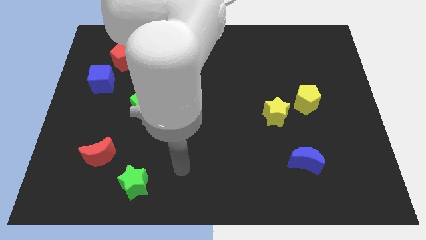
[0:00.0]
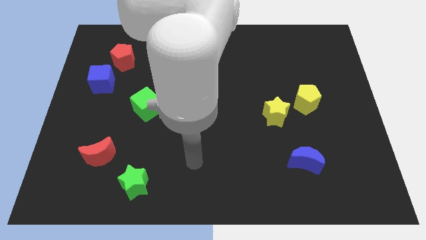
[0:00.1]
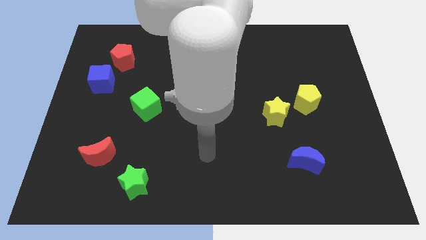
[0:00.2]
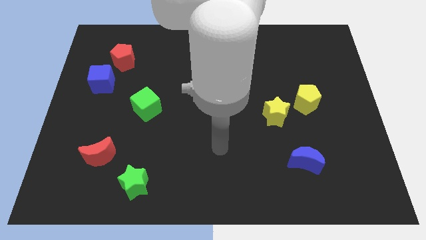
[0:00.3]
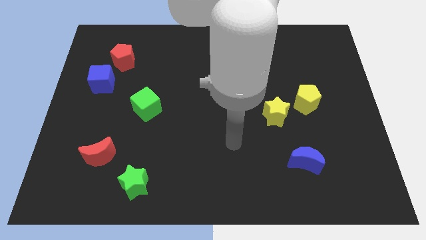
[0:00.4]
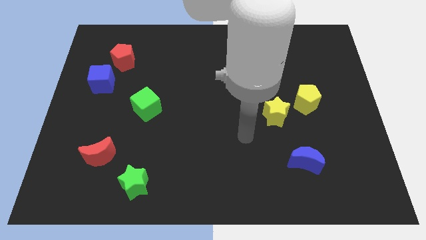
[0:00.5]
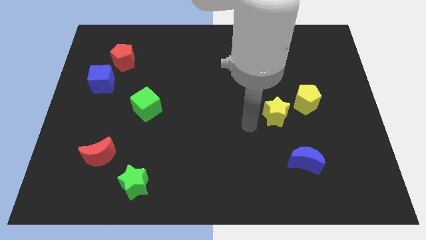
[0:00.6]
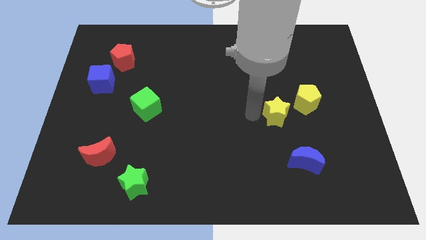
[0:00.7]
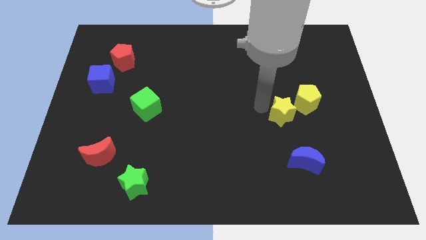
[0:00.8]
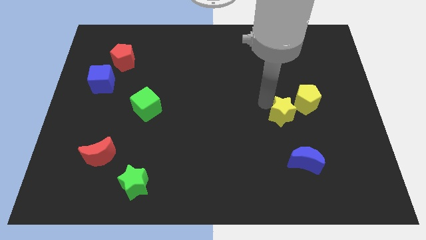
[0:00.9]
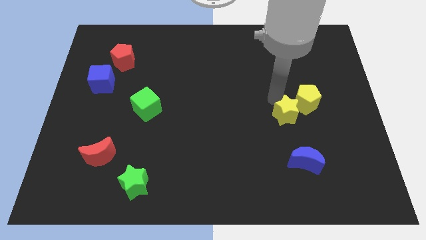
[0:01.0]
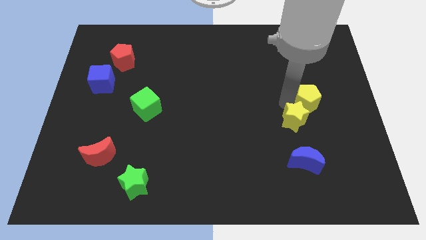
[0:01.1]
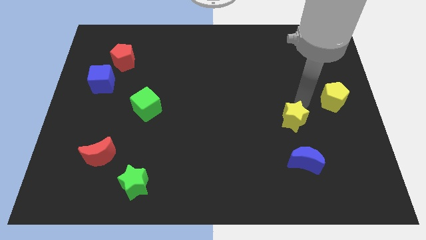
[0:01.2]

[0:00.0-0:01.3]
separate the yellow star from the yellow pentagon

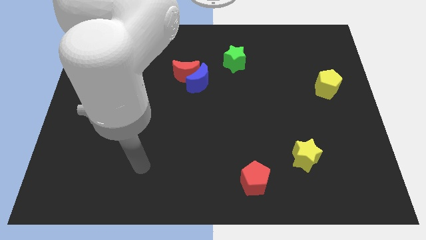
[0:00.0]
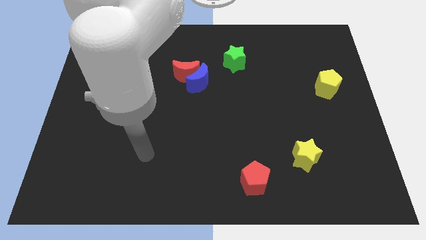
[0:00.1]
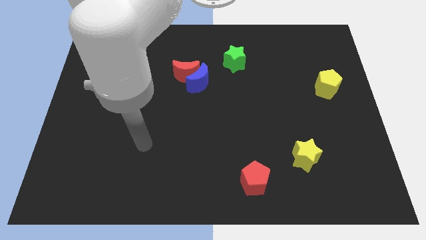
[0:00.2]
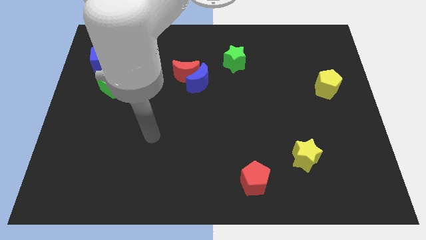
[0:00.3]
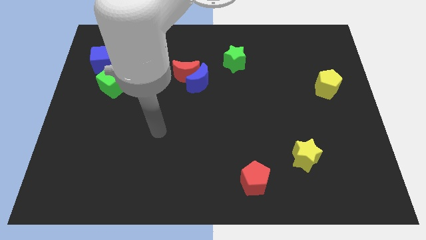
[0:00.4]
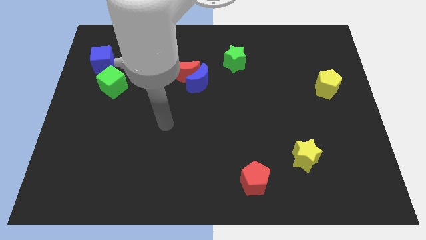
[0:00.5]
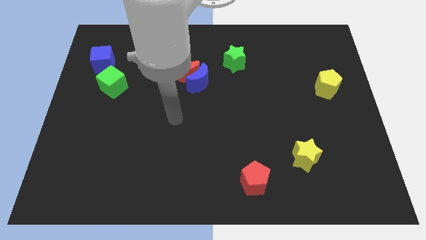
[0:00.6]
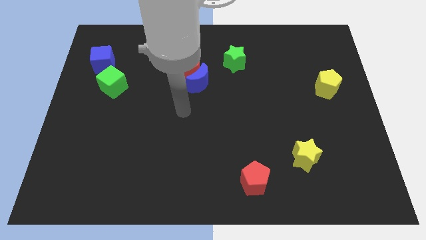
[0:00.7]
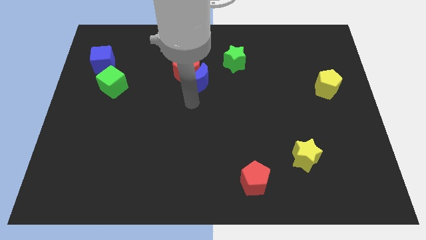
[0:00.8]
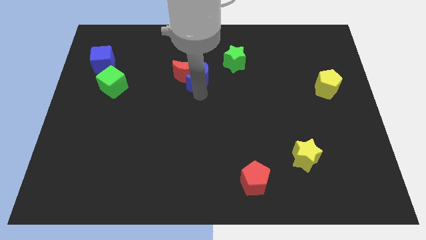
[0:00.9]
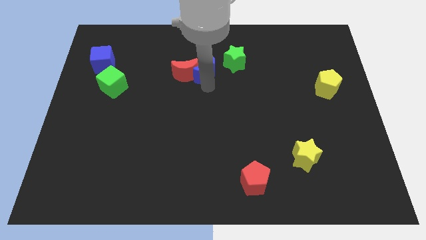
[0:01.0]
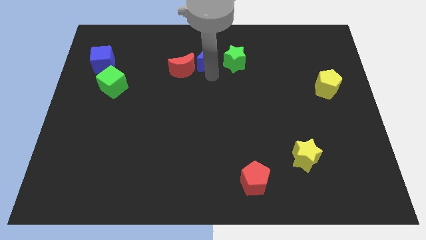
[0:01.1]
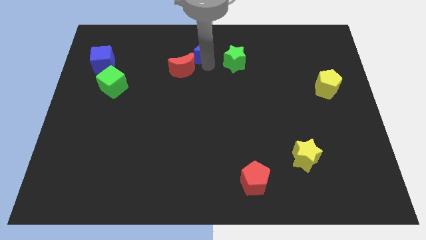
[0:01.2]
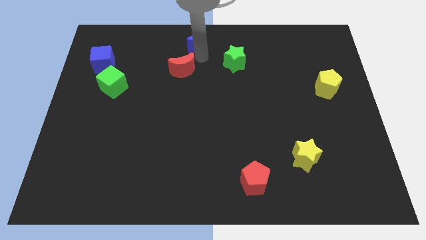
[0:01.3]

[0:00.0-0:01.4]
pull the red moon apart from the blue moon

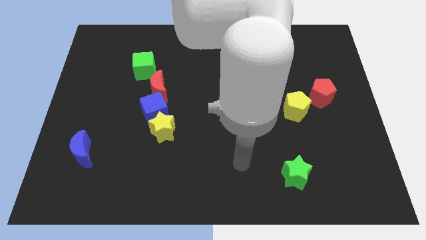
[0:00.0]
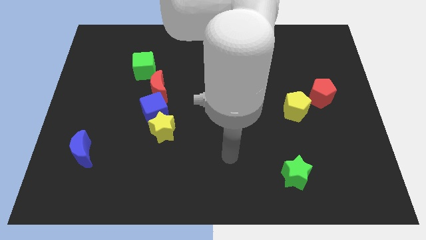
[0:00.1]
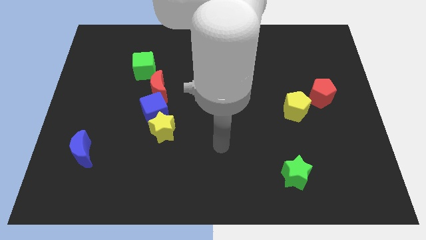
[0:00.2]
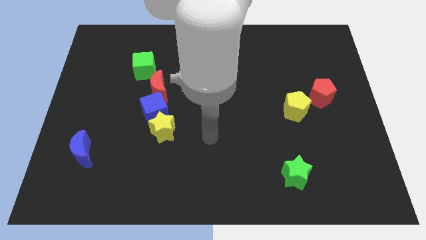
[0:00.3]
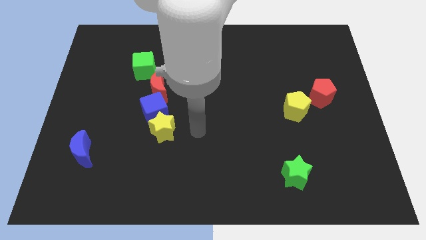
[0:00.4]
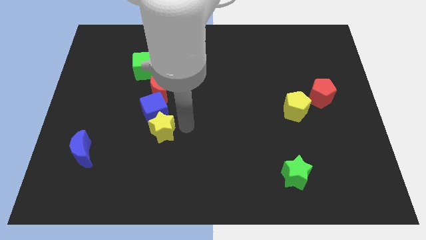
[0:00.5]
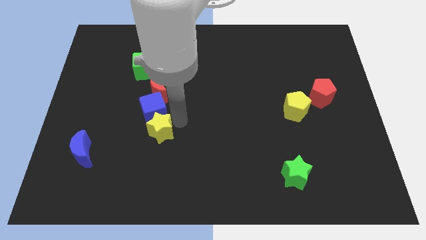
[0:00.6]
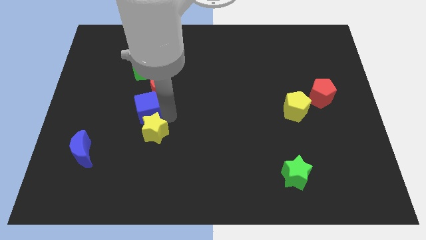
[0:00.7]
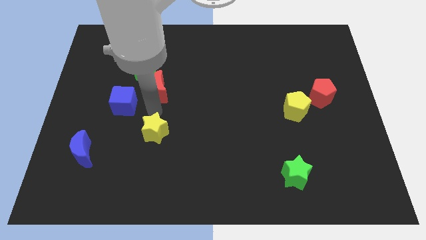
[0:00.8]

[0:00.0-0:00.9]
move the yellow star away from the blue cube

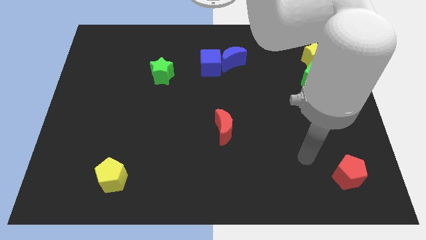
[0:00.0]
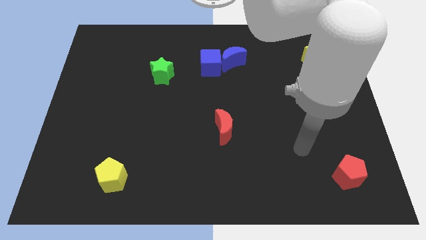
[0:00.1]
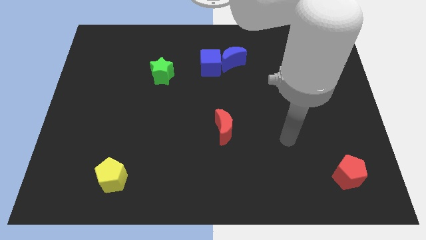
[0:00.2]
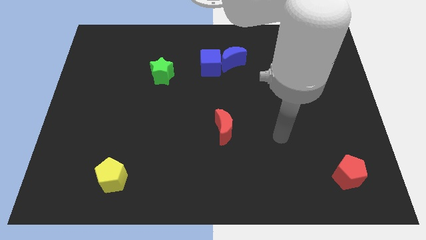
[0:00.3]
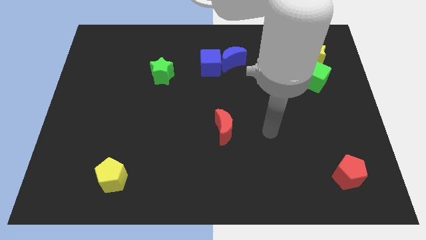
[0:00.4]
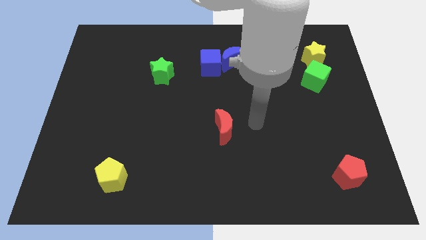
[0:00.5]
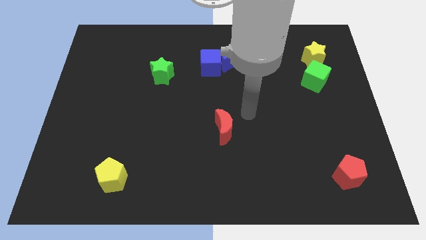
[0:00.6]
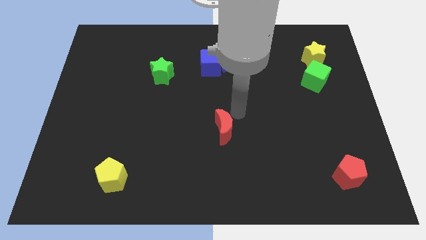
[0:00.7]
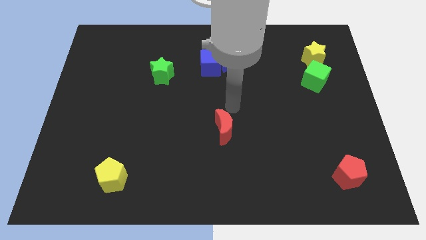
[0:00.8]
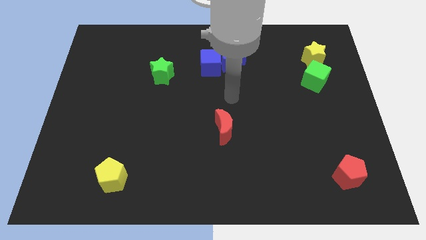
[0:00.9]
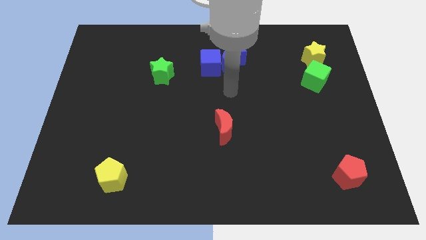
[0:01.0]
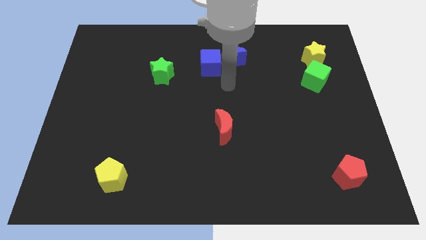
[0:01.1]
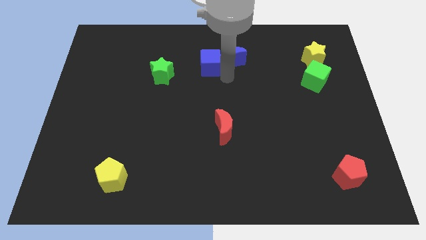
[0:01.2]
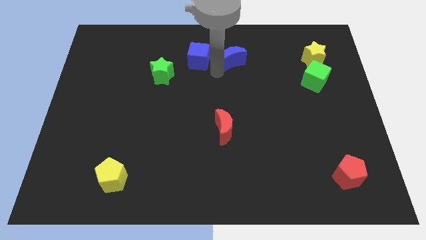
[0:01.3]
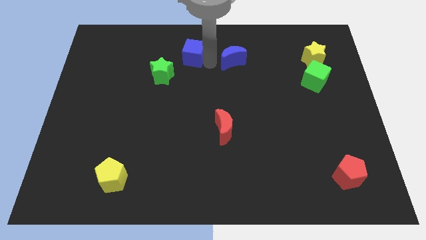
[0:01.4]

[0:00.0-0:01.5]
separate the blue moon from the blue cube

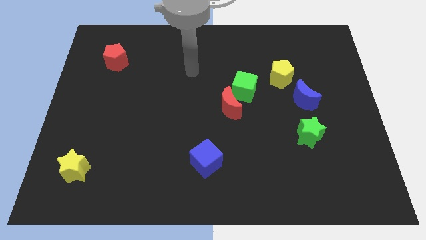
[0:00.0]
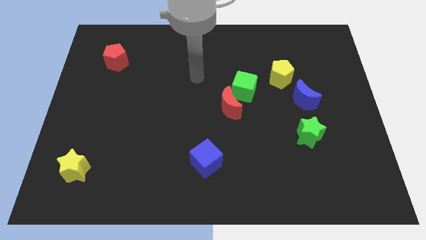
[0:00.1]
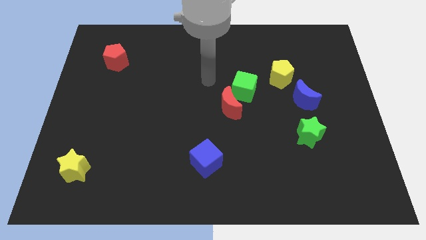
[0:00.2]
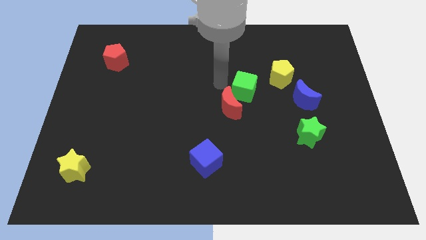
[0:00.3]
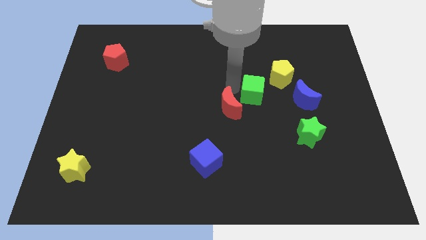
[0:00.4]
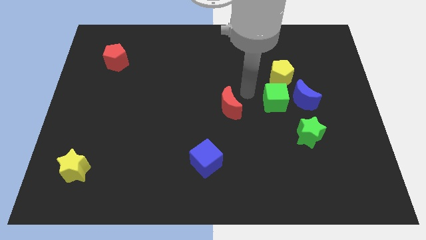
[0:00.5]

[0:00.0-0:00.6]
move the red moon away from the green cube

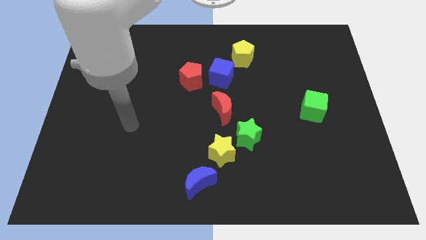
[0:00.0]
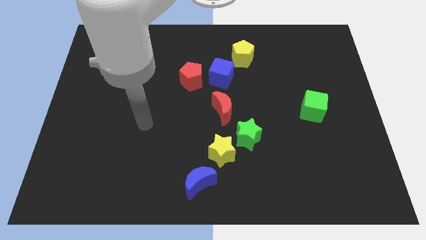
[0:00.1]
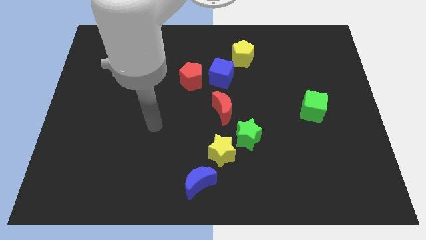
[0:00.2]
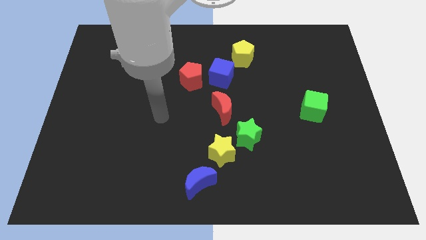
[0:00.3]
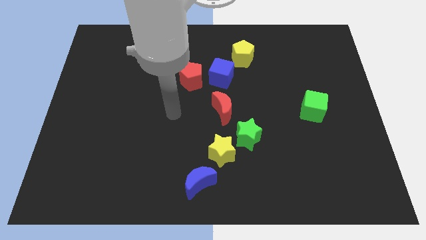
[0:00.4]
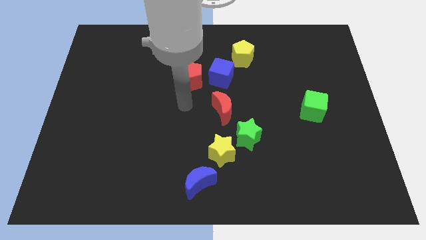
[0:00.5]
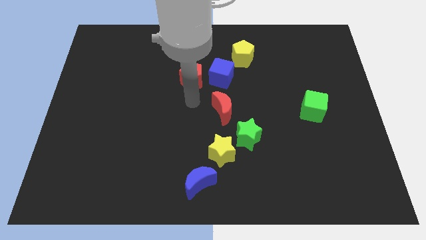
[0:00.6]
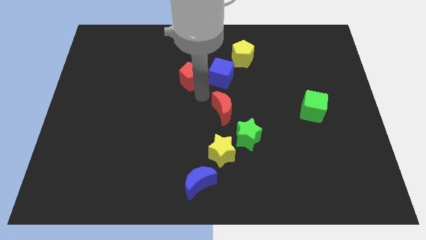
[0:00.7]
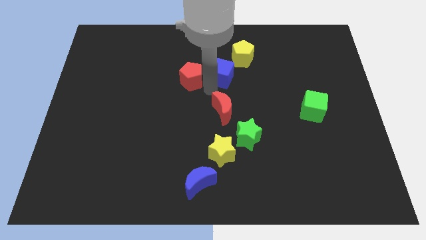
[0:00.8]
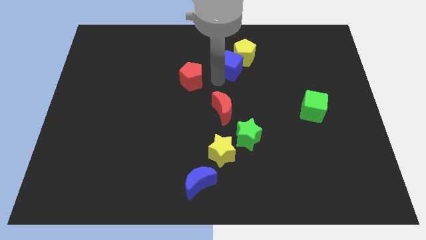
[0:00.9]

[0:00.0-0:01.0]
separate the red pentagon from the blue cube

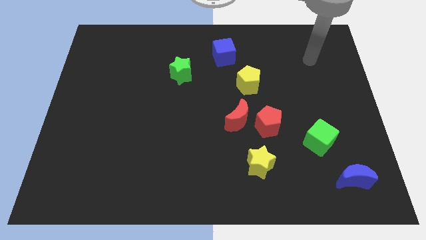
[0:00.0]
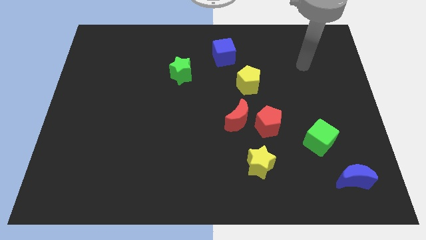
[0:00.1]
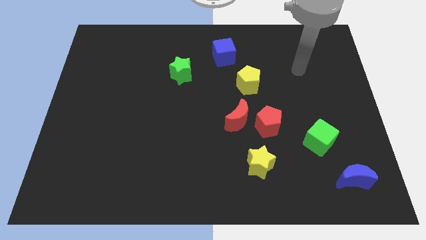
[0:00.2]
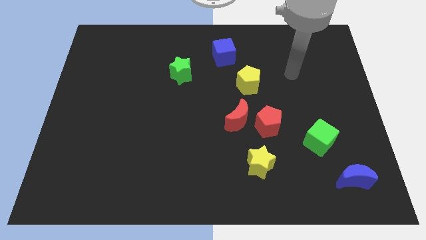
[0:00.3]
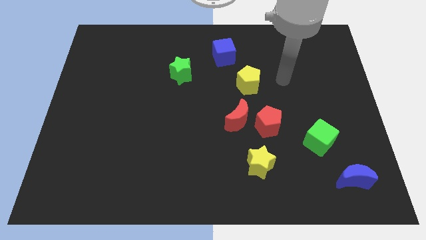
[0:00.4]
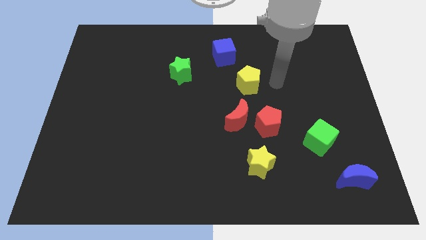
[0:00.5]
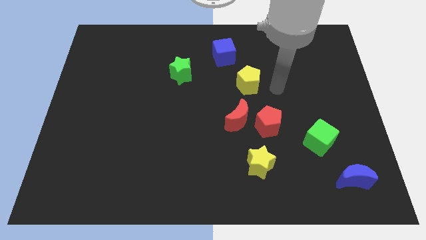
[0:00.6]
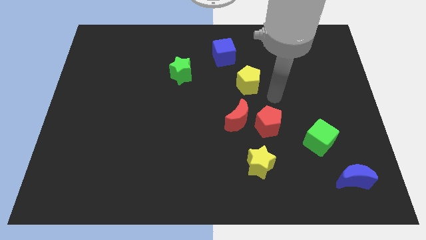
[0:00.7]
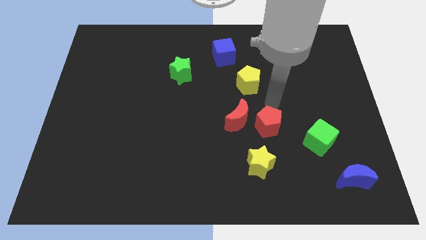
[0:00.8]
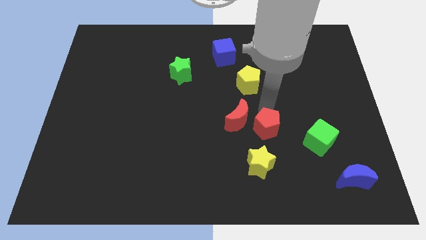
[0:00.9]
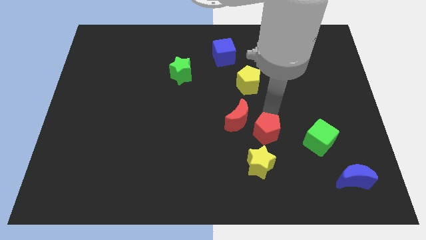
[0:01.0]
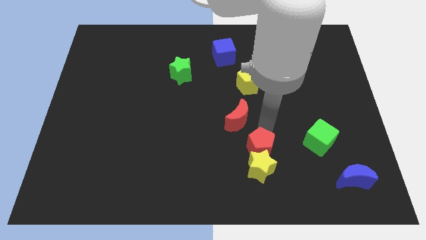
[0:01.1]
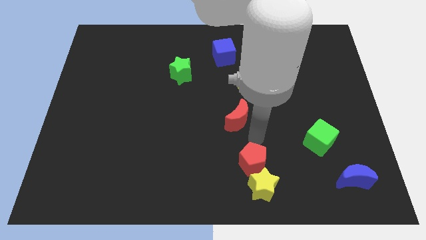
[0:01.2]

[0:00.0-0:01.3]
move the red moon away from the red pentagon

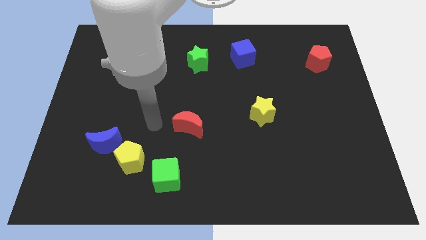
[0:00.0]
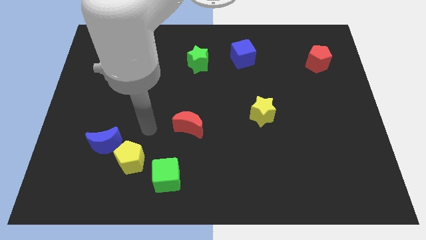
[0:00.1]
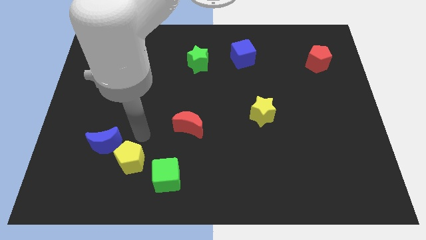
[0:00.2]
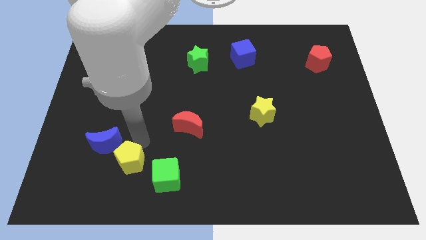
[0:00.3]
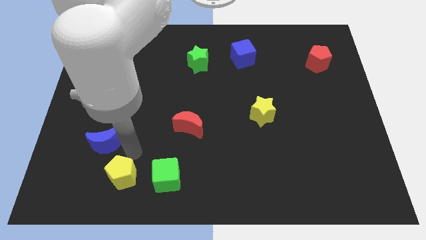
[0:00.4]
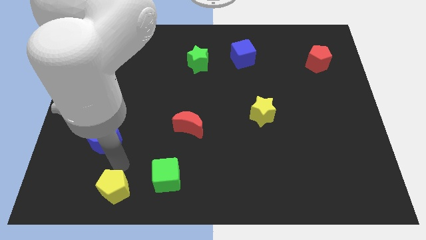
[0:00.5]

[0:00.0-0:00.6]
separate the blue moon from the yellow pentagon

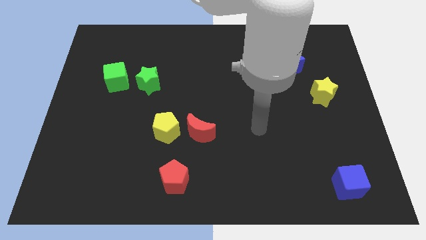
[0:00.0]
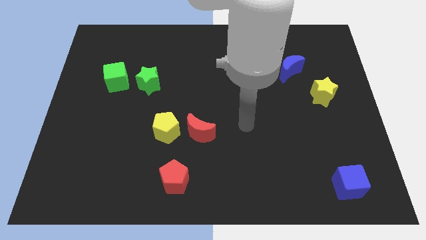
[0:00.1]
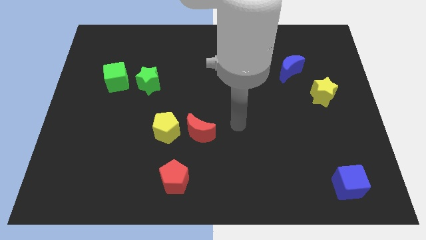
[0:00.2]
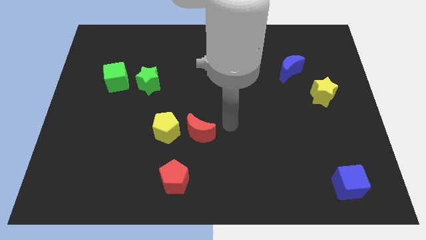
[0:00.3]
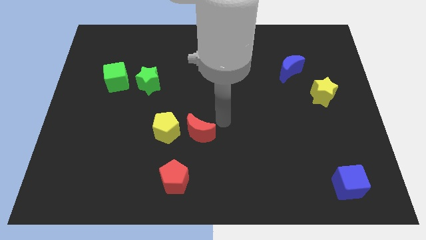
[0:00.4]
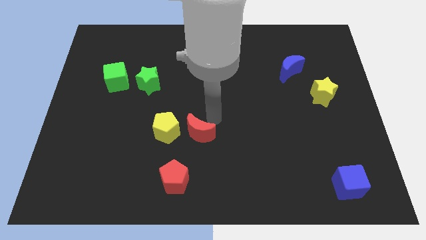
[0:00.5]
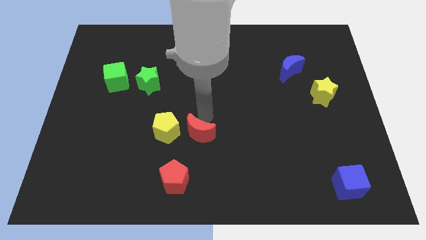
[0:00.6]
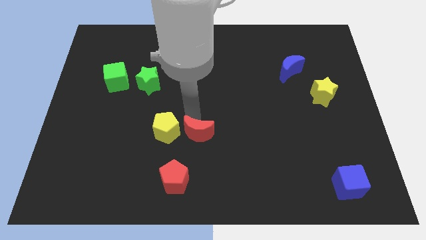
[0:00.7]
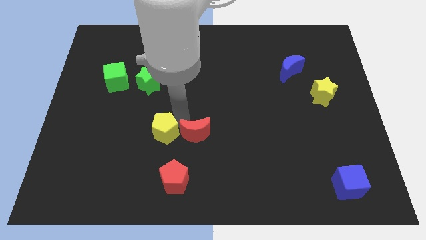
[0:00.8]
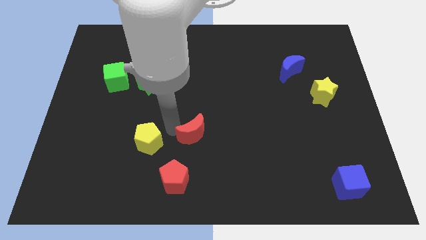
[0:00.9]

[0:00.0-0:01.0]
separate the red moon from the yellow pentagon
